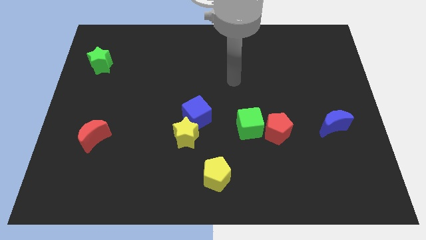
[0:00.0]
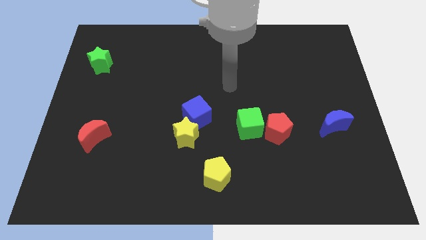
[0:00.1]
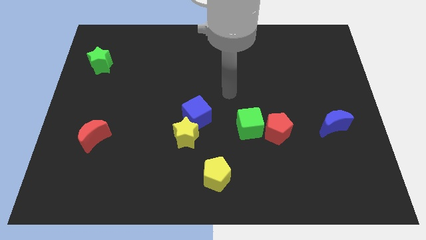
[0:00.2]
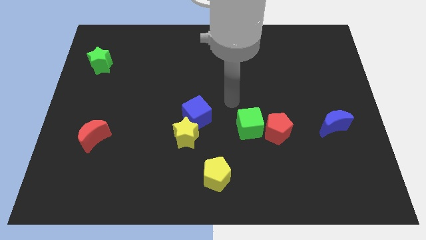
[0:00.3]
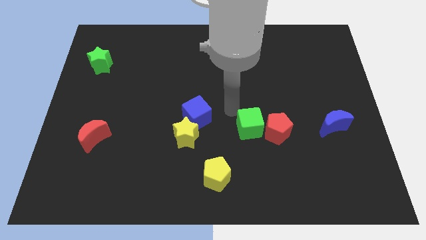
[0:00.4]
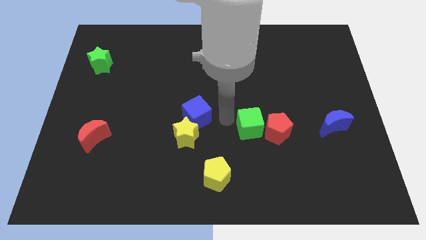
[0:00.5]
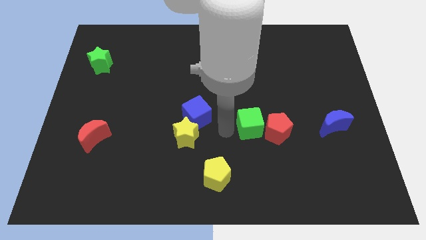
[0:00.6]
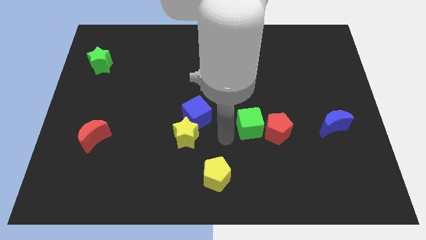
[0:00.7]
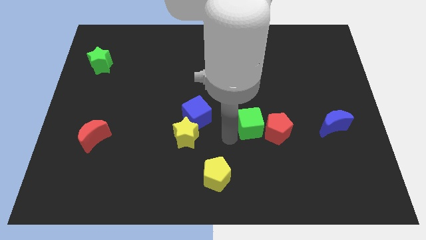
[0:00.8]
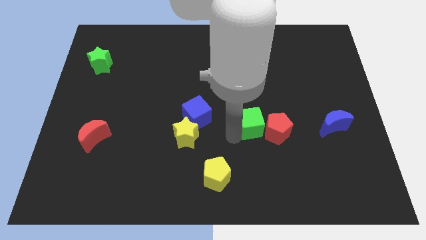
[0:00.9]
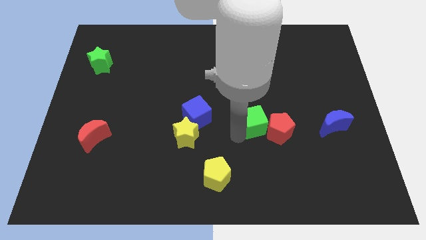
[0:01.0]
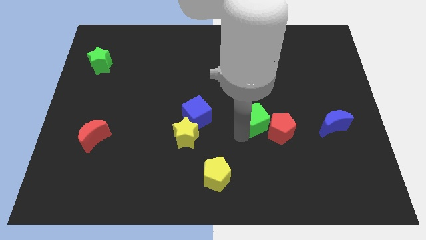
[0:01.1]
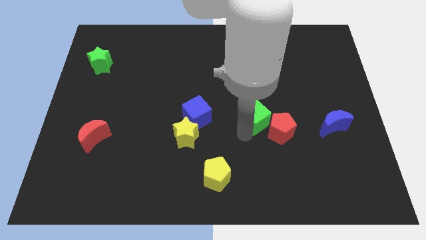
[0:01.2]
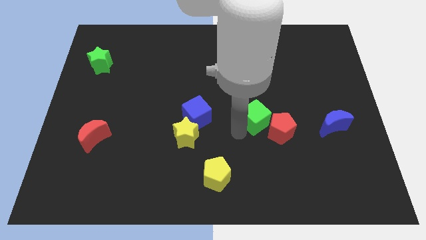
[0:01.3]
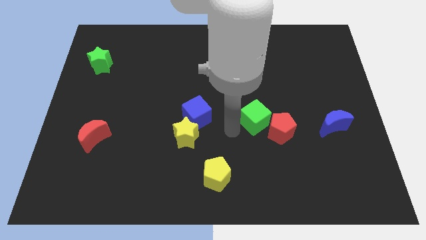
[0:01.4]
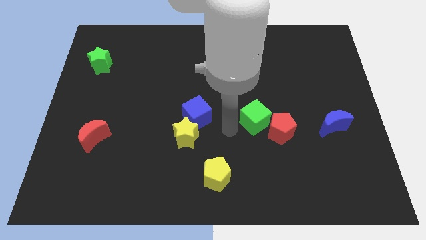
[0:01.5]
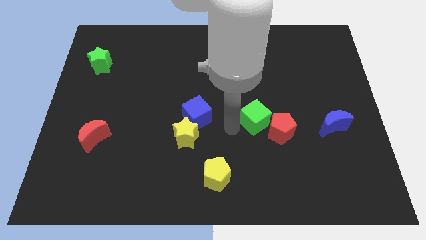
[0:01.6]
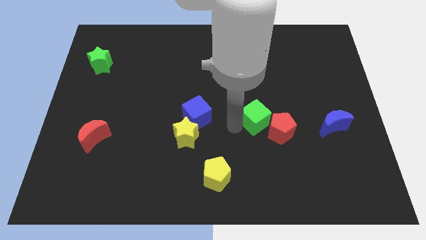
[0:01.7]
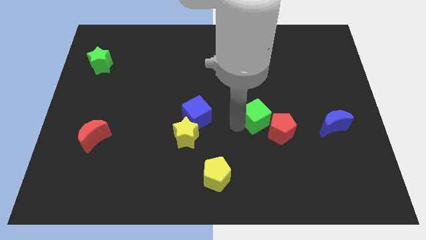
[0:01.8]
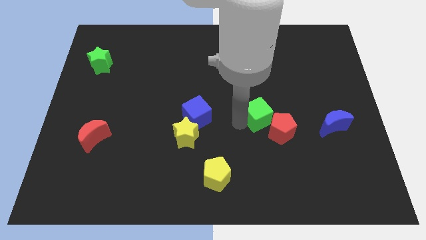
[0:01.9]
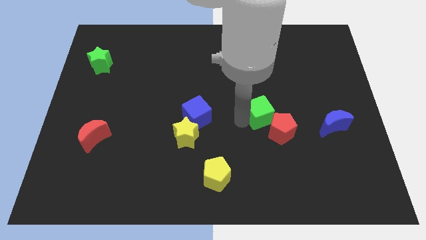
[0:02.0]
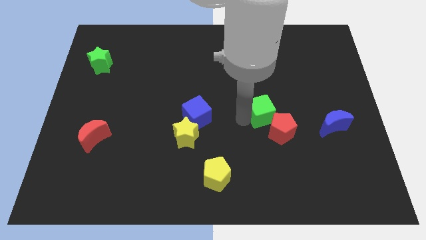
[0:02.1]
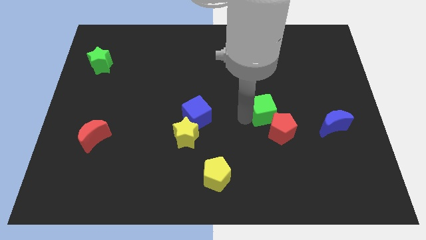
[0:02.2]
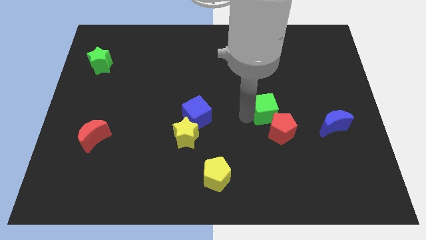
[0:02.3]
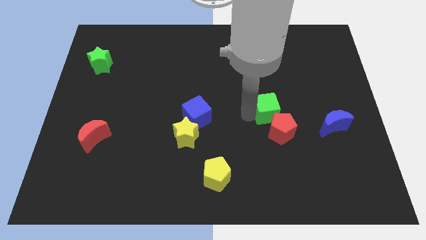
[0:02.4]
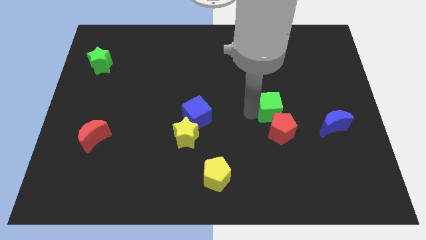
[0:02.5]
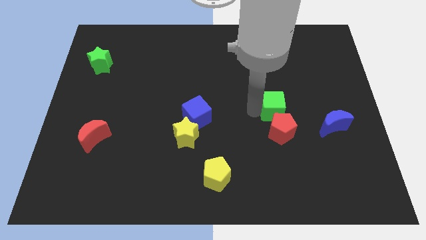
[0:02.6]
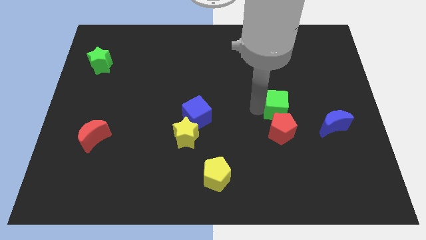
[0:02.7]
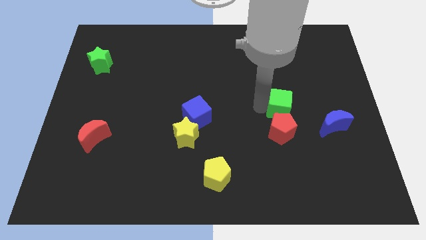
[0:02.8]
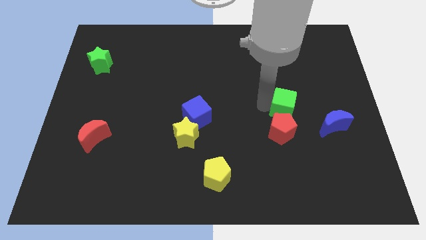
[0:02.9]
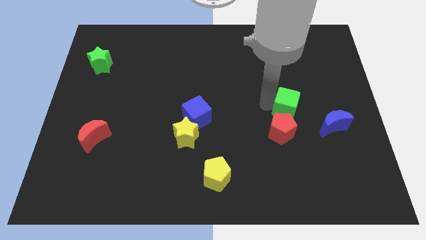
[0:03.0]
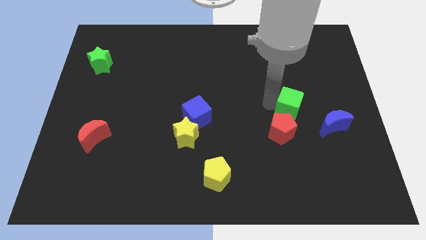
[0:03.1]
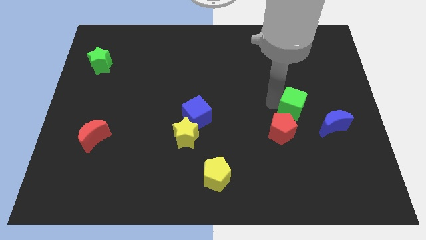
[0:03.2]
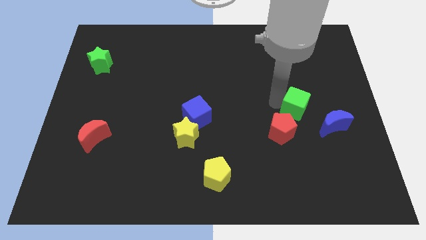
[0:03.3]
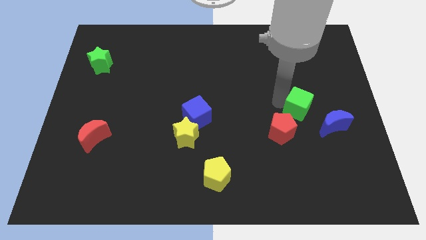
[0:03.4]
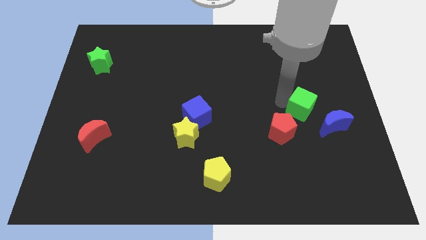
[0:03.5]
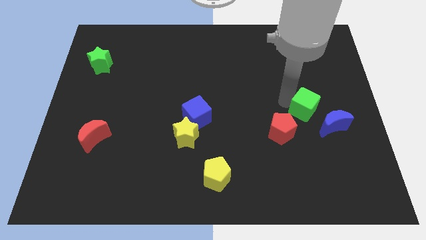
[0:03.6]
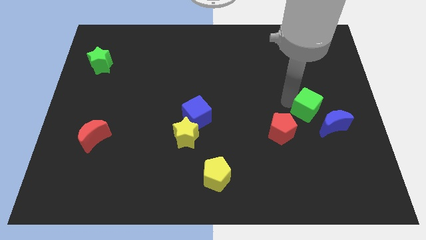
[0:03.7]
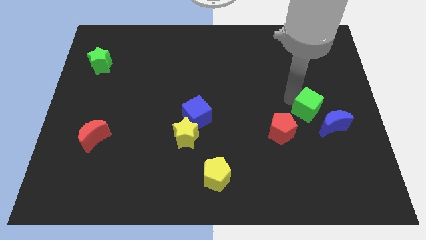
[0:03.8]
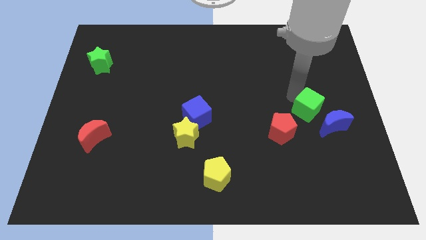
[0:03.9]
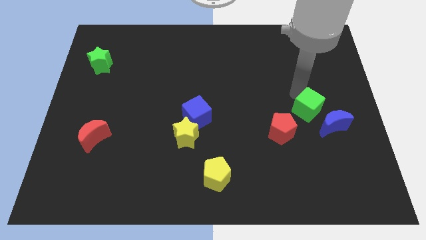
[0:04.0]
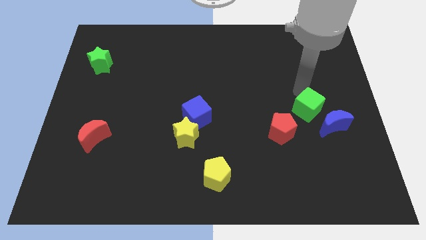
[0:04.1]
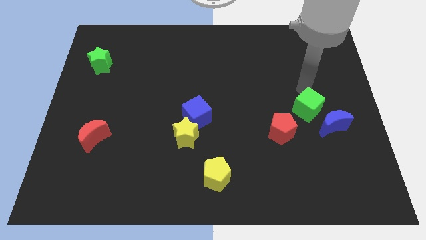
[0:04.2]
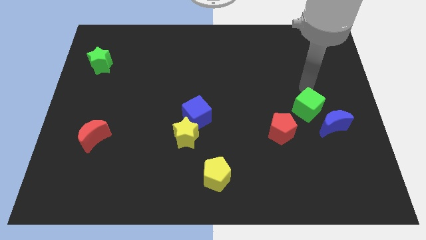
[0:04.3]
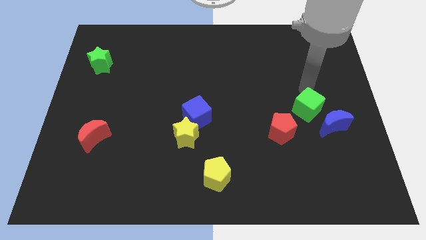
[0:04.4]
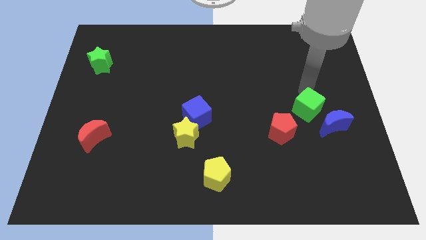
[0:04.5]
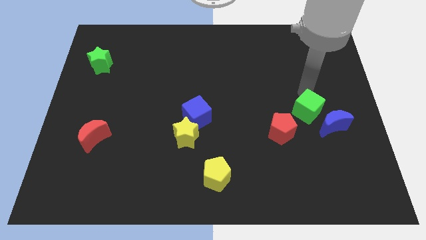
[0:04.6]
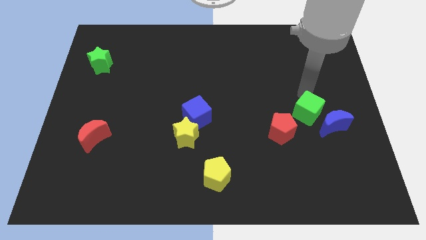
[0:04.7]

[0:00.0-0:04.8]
move the green cube close to the blue moon

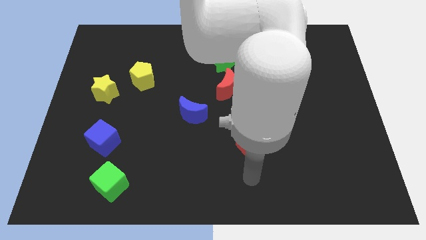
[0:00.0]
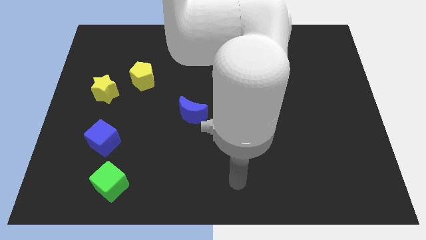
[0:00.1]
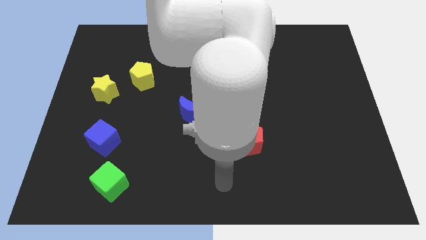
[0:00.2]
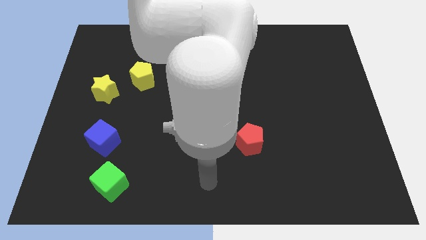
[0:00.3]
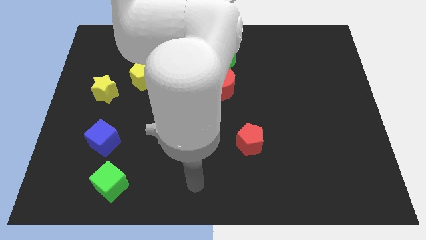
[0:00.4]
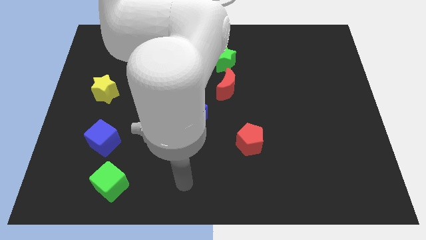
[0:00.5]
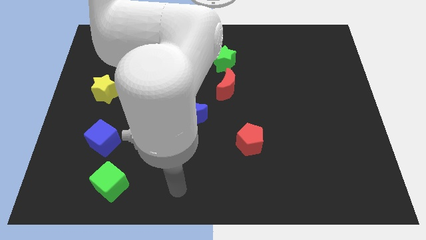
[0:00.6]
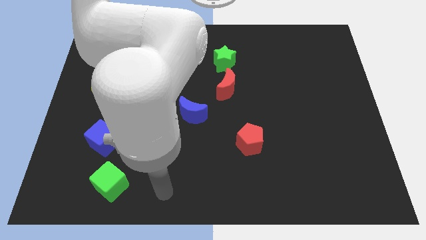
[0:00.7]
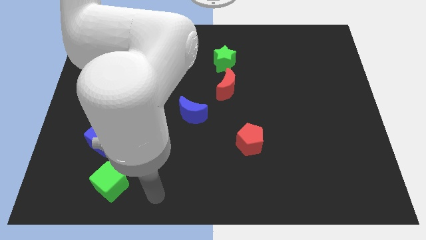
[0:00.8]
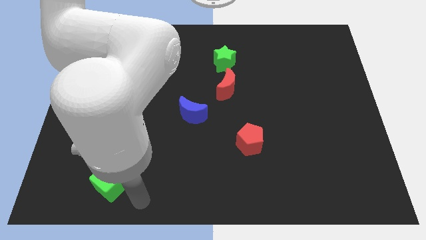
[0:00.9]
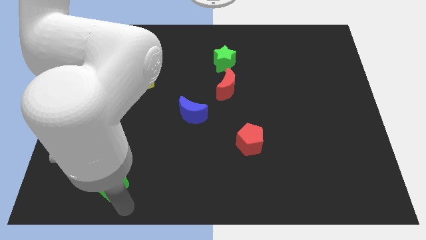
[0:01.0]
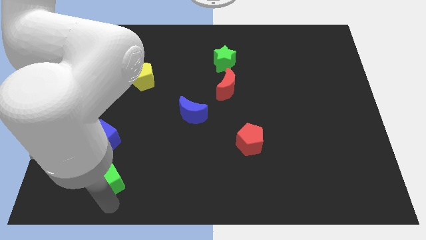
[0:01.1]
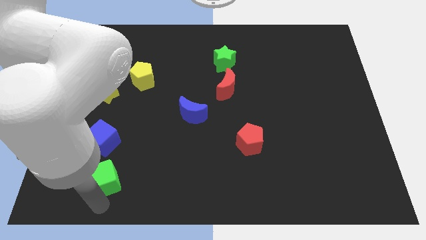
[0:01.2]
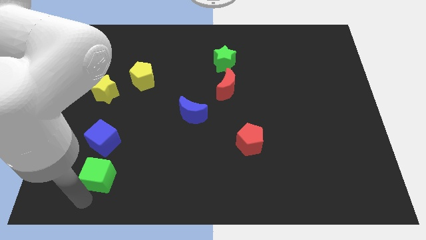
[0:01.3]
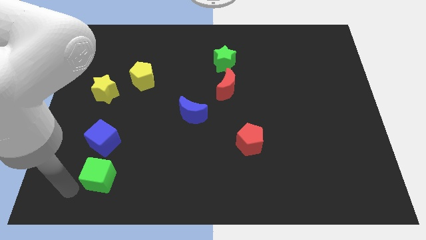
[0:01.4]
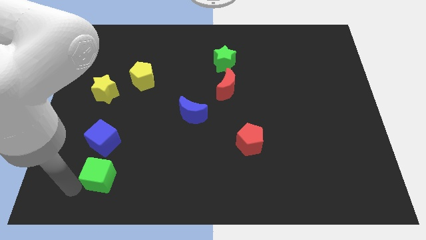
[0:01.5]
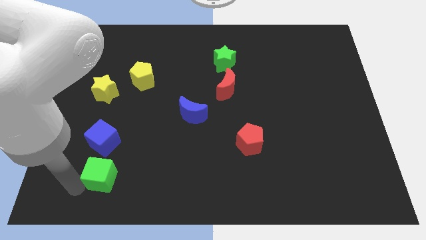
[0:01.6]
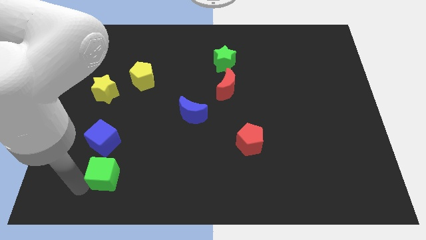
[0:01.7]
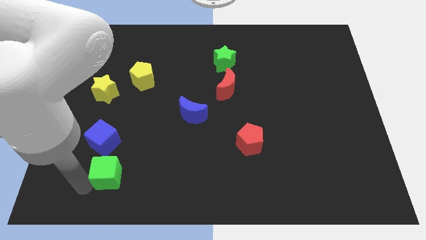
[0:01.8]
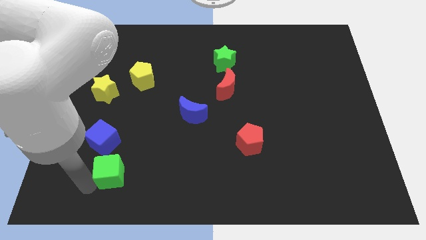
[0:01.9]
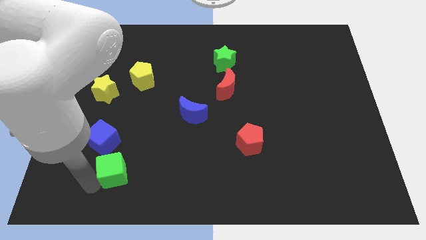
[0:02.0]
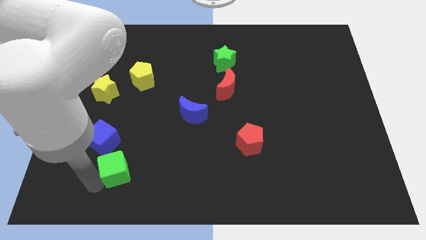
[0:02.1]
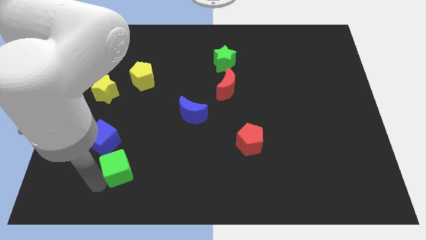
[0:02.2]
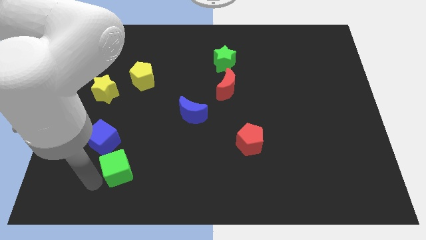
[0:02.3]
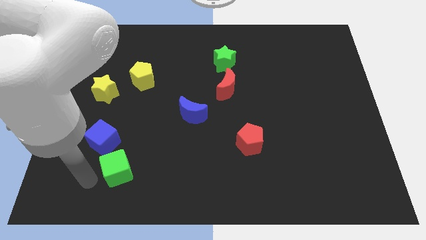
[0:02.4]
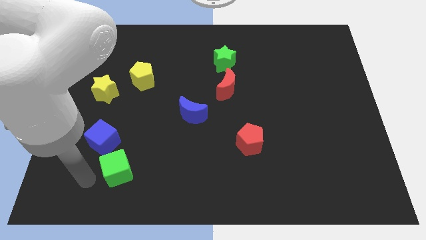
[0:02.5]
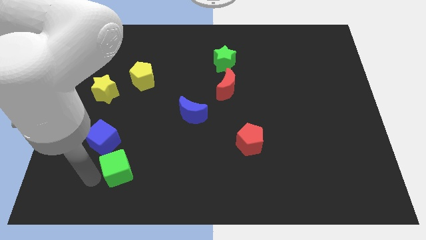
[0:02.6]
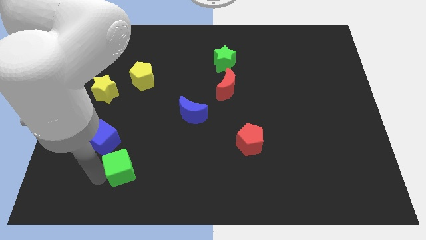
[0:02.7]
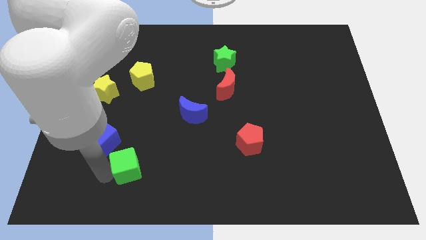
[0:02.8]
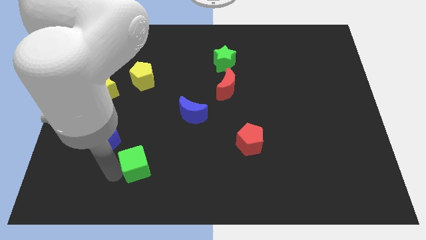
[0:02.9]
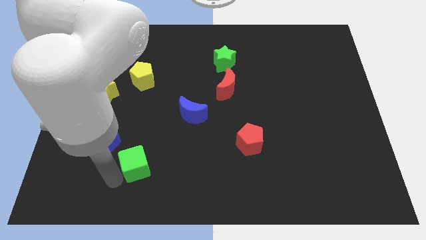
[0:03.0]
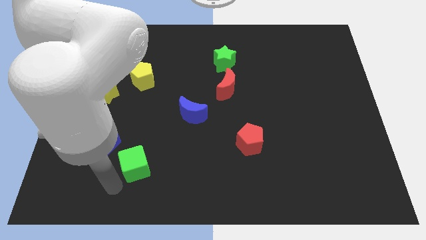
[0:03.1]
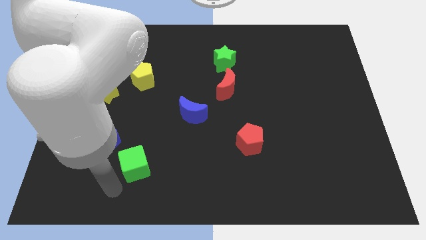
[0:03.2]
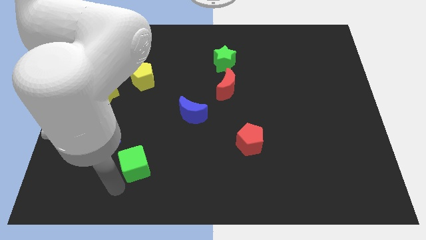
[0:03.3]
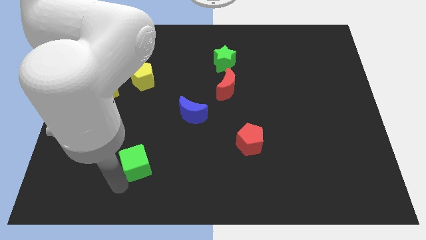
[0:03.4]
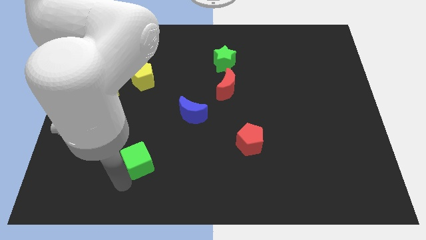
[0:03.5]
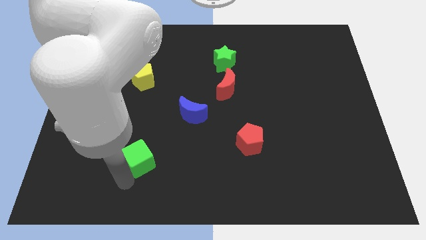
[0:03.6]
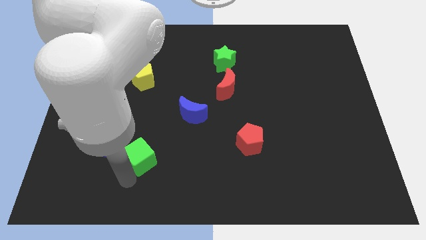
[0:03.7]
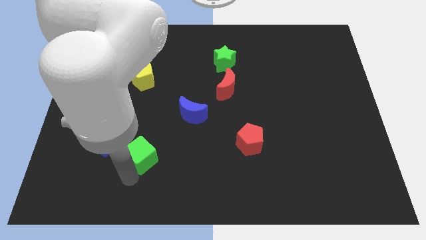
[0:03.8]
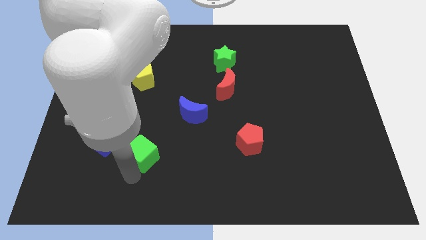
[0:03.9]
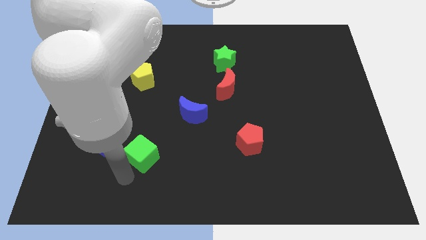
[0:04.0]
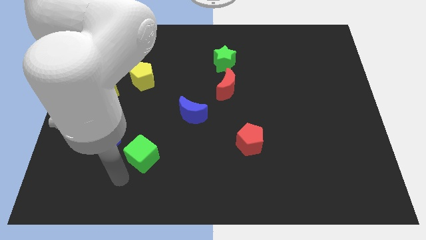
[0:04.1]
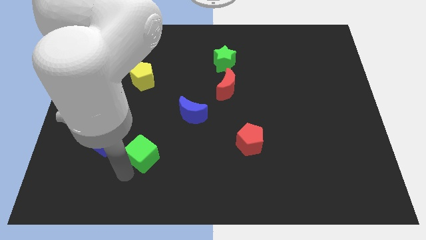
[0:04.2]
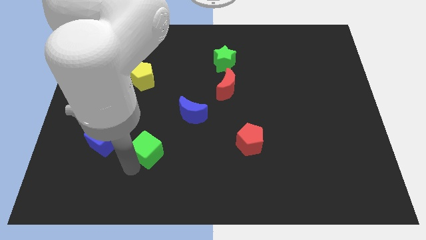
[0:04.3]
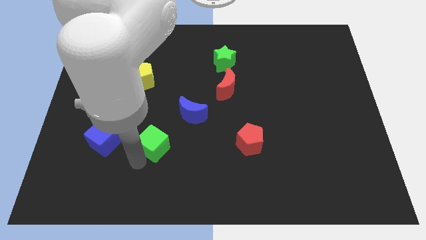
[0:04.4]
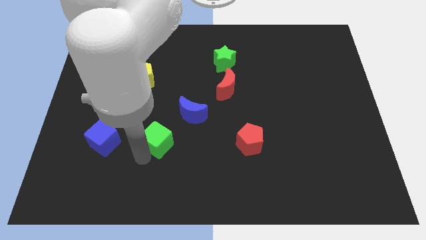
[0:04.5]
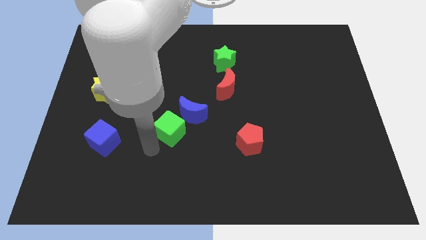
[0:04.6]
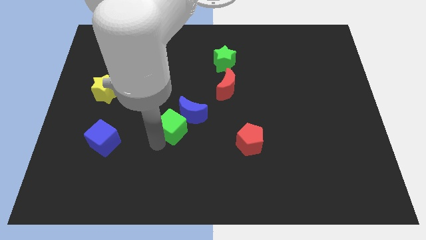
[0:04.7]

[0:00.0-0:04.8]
put the green cube close to the blue moon
